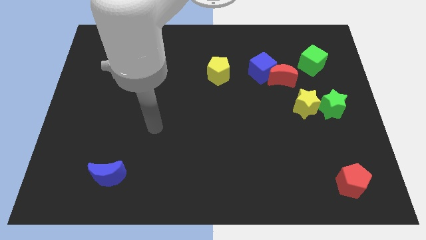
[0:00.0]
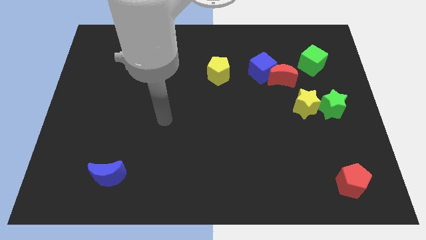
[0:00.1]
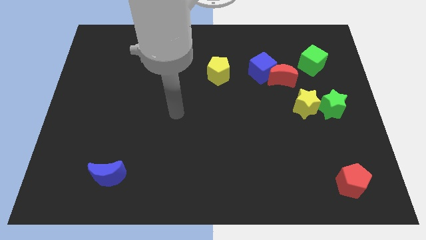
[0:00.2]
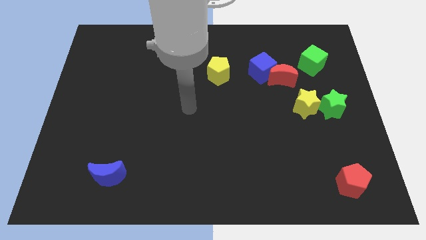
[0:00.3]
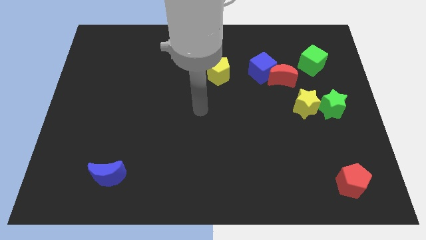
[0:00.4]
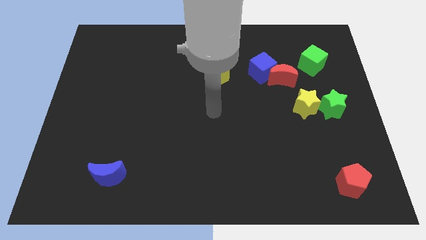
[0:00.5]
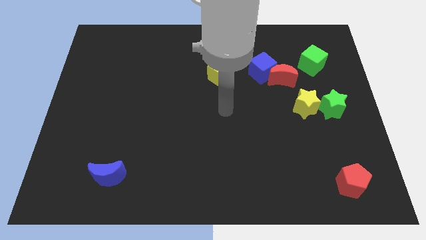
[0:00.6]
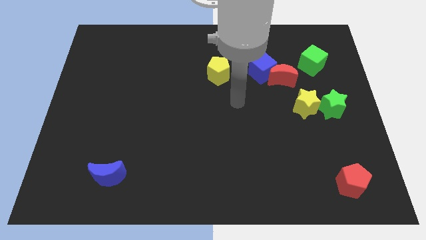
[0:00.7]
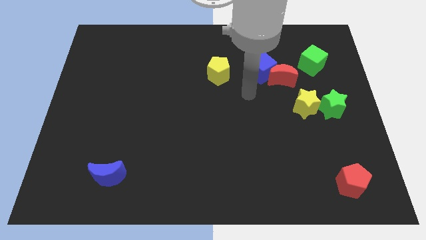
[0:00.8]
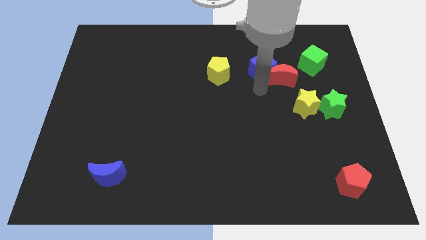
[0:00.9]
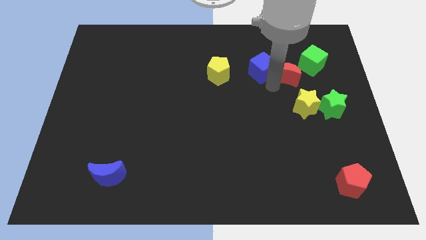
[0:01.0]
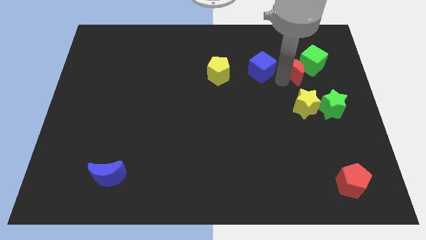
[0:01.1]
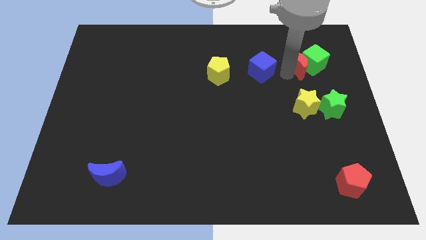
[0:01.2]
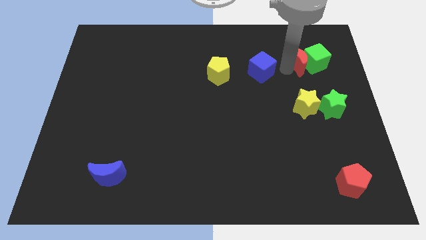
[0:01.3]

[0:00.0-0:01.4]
pull the blue cube apart from the red moon

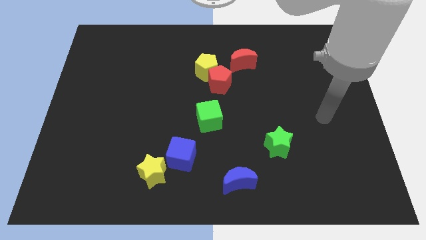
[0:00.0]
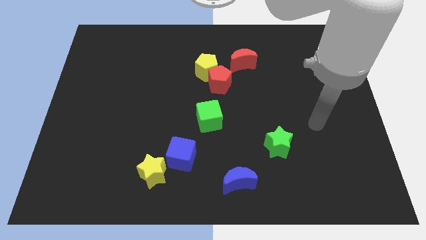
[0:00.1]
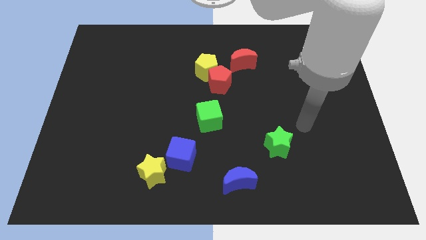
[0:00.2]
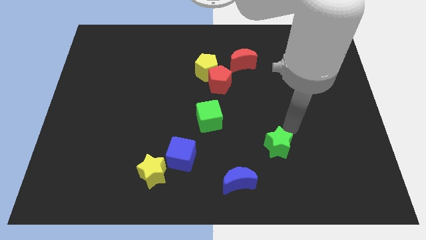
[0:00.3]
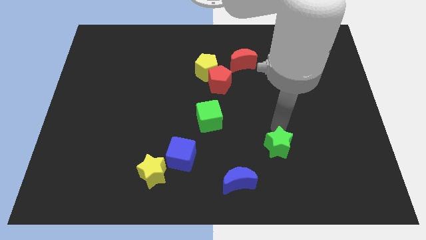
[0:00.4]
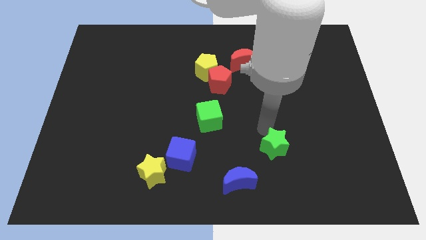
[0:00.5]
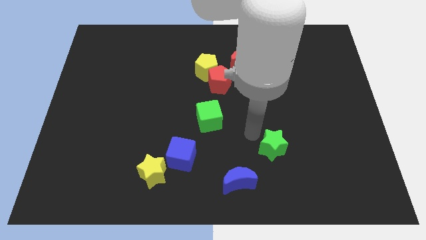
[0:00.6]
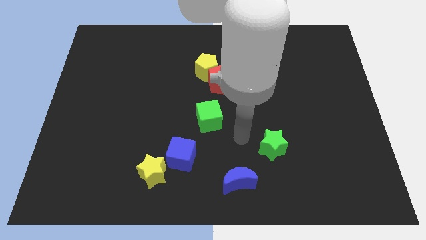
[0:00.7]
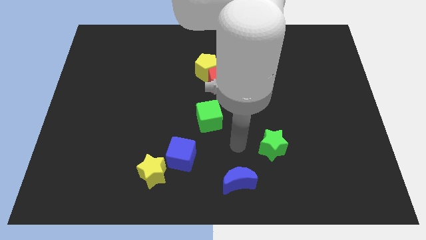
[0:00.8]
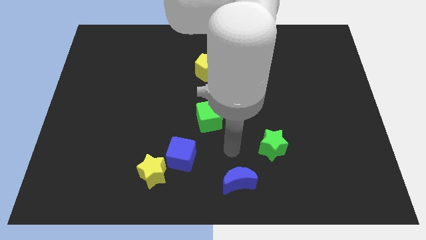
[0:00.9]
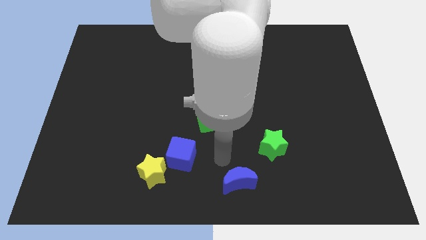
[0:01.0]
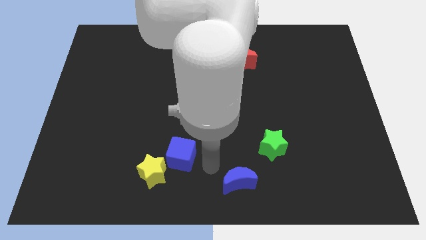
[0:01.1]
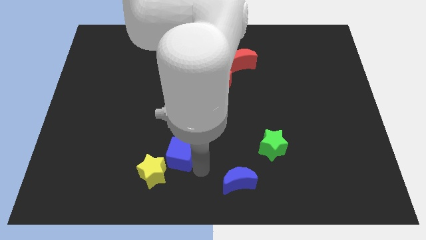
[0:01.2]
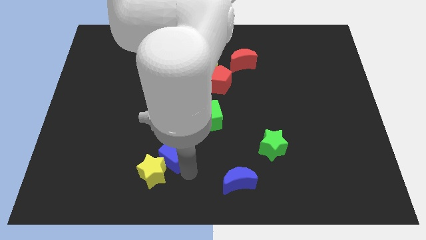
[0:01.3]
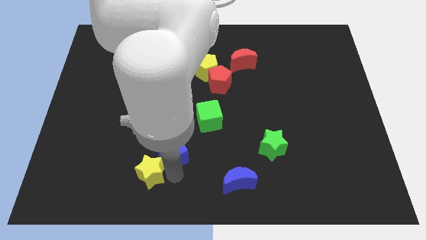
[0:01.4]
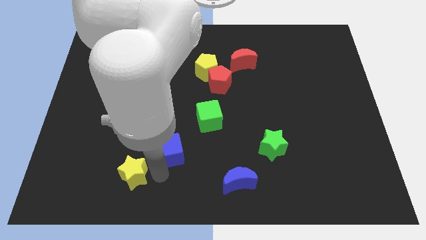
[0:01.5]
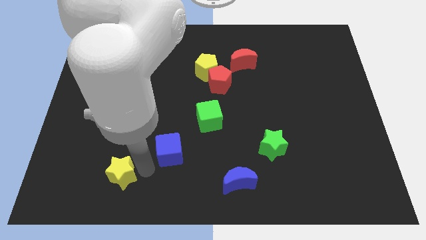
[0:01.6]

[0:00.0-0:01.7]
separate the blue cube from the yellow star

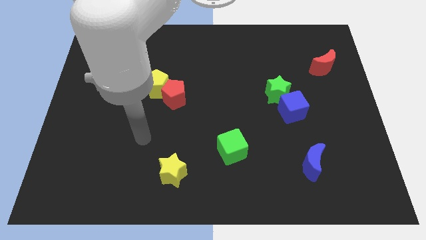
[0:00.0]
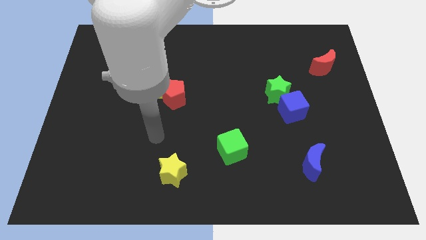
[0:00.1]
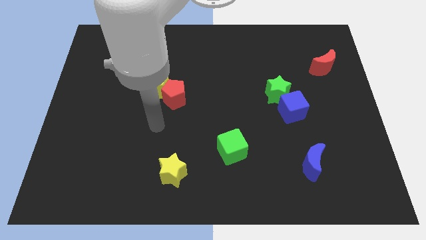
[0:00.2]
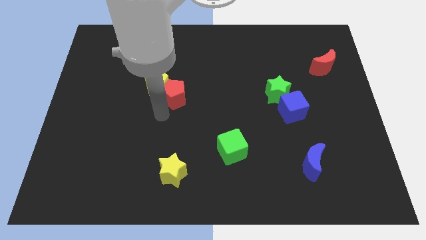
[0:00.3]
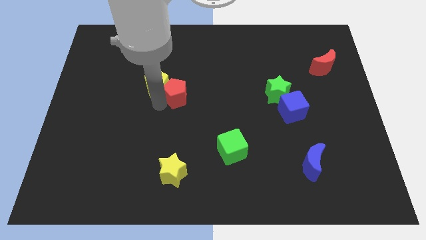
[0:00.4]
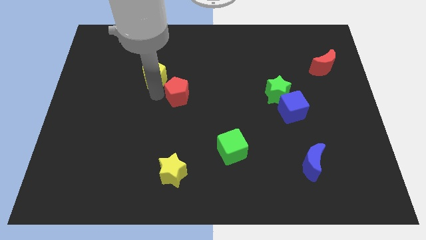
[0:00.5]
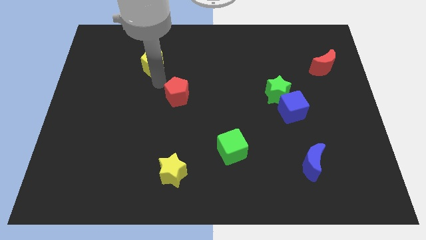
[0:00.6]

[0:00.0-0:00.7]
move the red pentagon away from the yellow pentagon

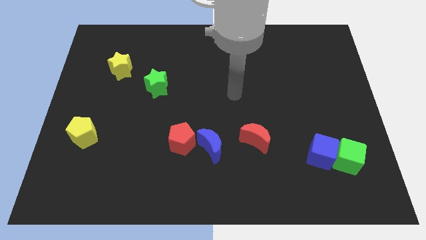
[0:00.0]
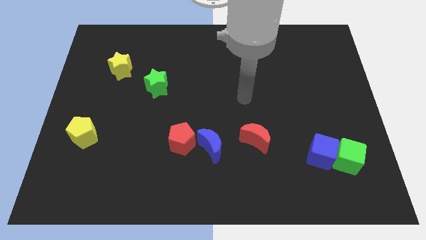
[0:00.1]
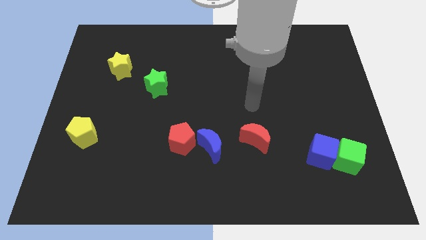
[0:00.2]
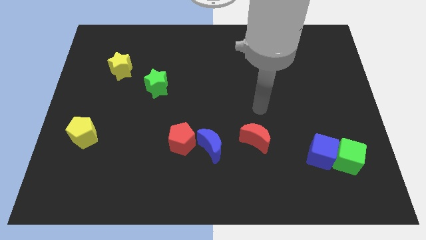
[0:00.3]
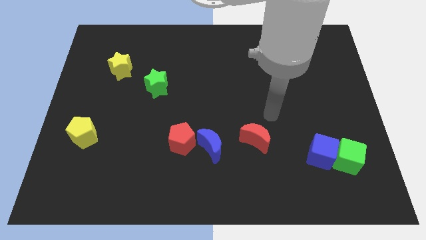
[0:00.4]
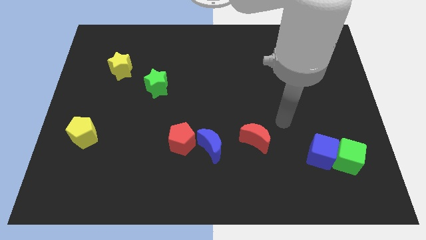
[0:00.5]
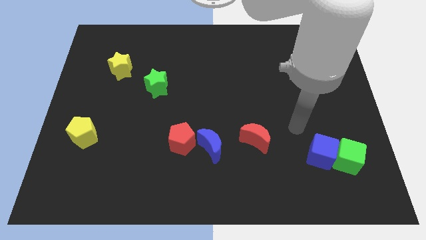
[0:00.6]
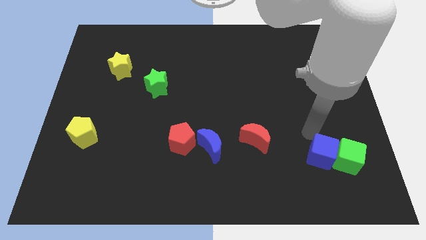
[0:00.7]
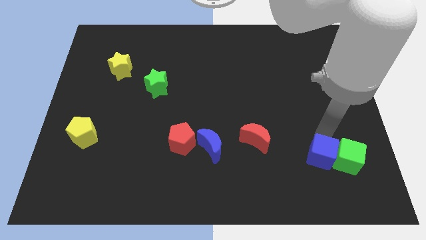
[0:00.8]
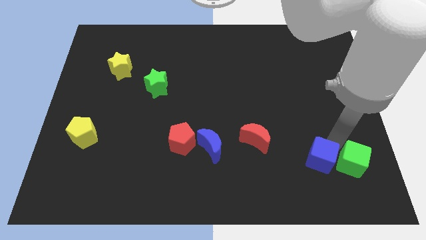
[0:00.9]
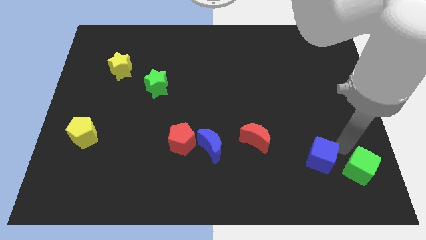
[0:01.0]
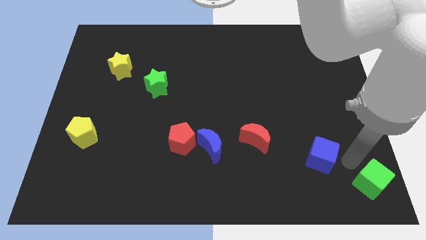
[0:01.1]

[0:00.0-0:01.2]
separate the blue cube from the green cube

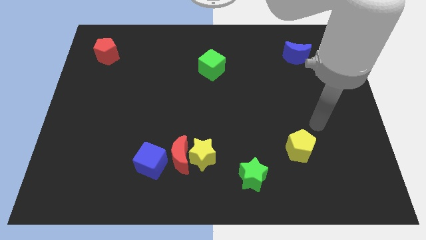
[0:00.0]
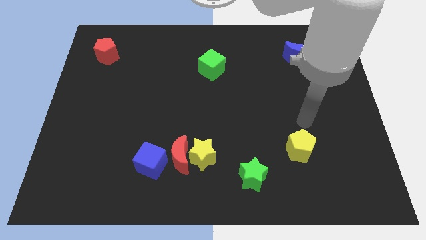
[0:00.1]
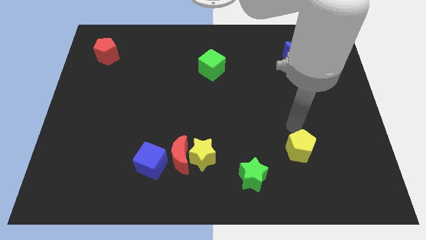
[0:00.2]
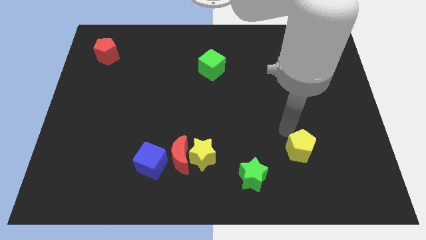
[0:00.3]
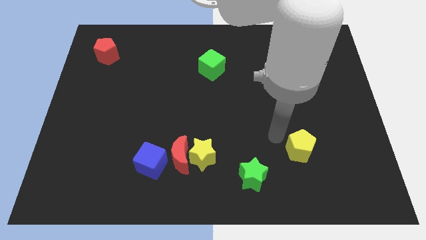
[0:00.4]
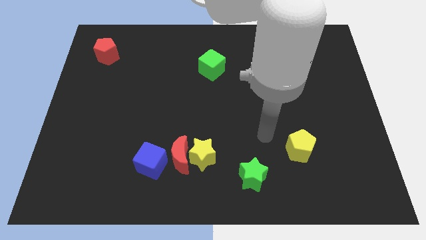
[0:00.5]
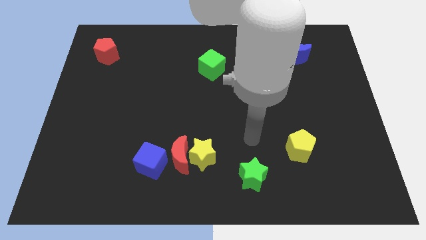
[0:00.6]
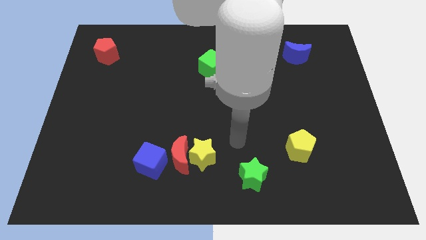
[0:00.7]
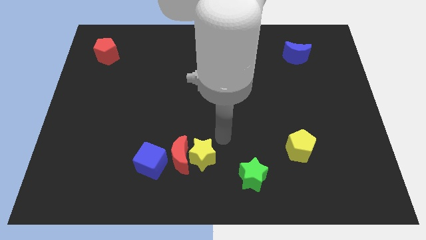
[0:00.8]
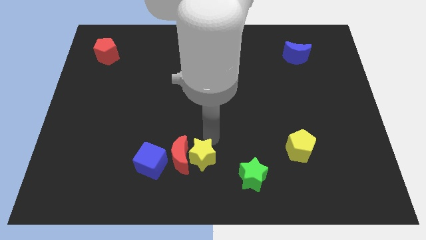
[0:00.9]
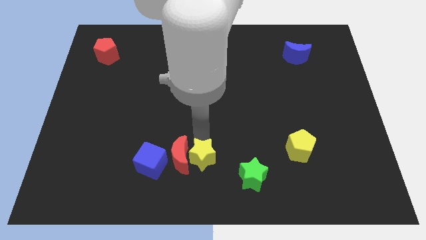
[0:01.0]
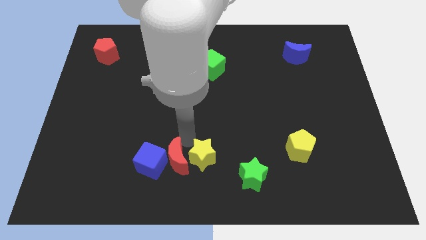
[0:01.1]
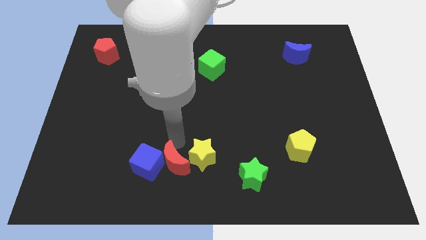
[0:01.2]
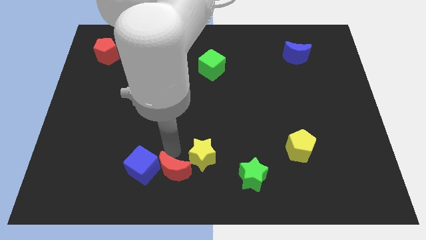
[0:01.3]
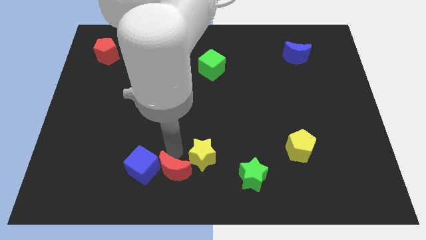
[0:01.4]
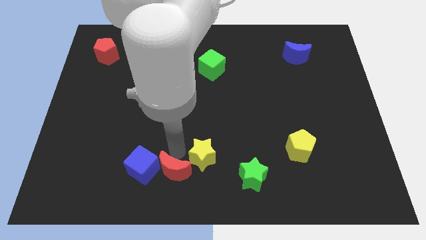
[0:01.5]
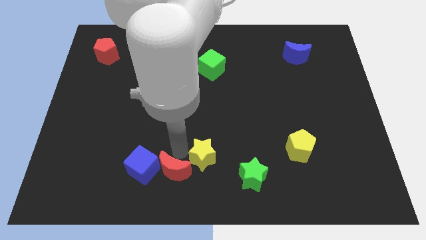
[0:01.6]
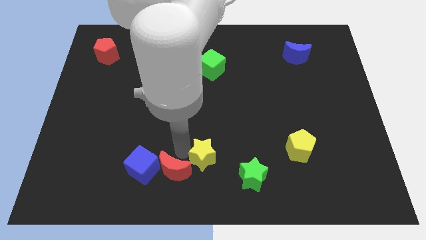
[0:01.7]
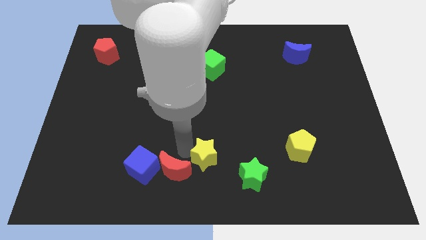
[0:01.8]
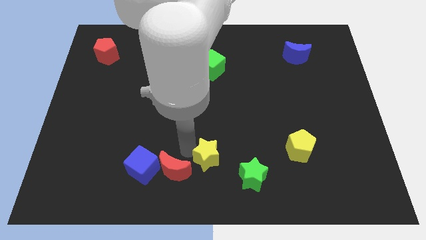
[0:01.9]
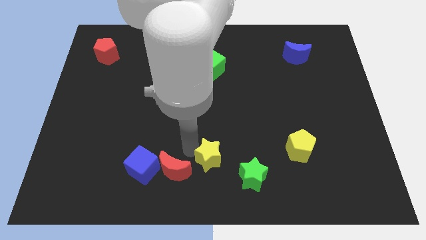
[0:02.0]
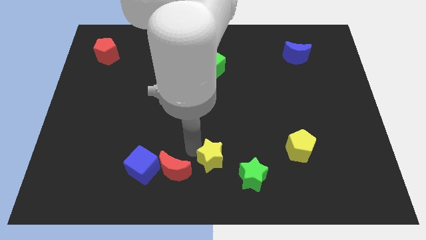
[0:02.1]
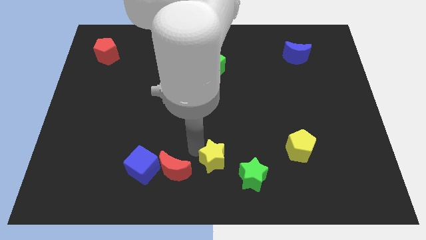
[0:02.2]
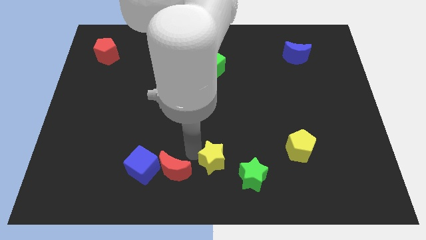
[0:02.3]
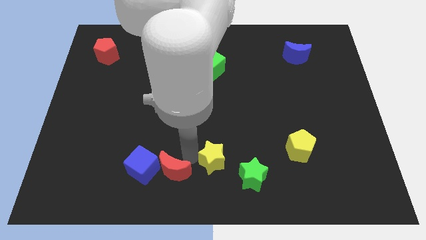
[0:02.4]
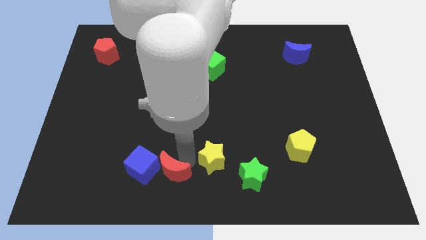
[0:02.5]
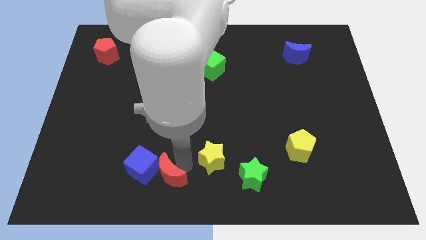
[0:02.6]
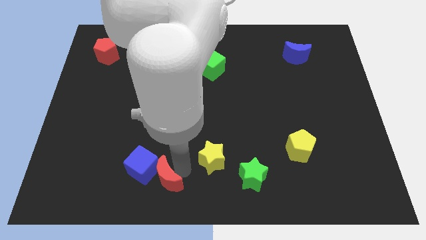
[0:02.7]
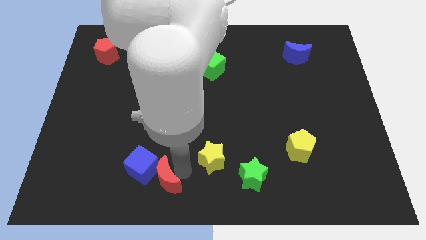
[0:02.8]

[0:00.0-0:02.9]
pull the yellow star apart from the red moon

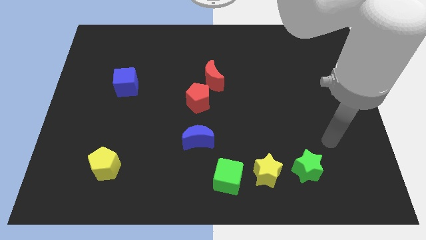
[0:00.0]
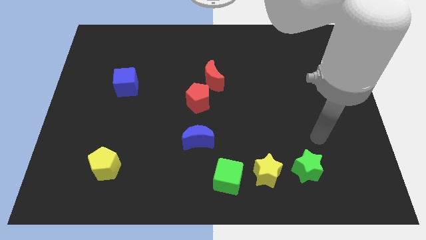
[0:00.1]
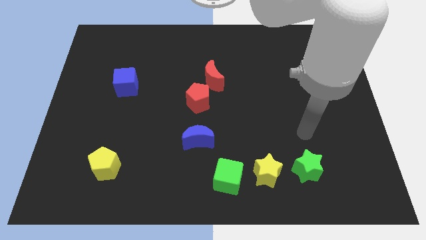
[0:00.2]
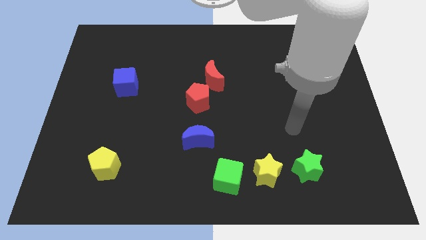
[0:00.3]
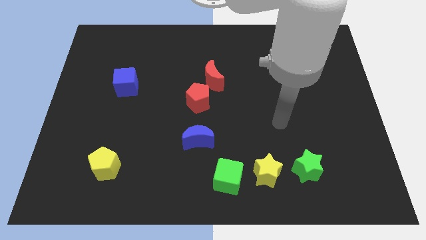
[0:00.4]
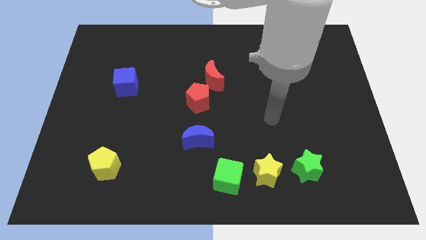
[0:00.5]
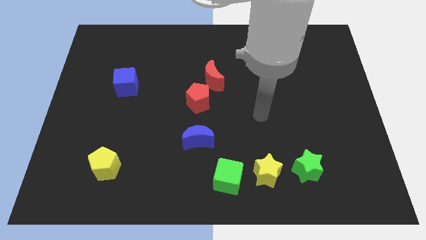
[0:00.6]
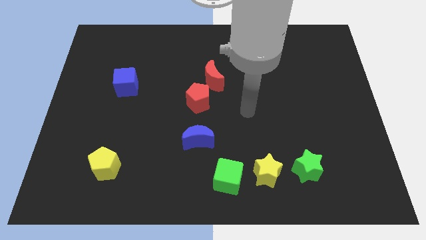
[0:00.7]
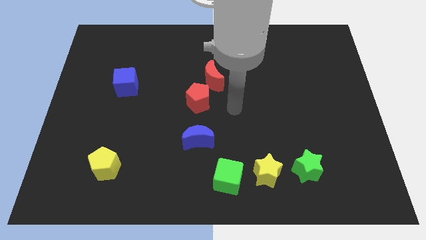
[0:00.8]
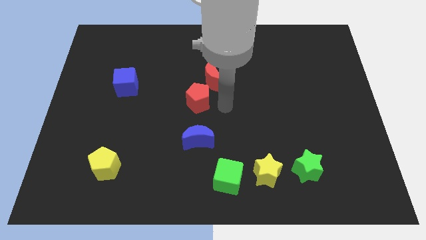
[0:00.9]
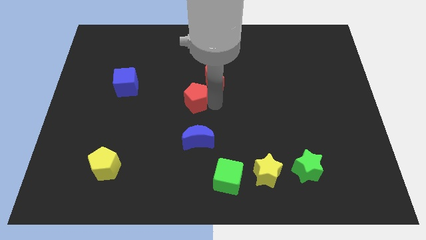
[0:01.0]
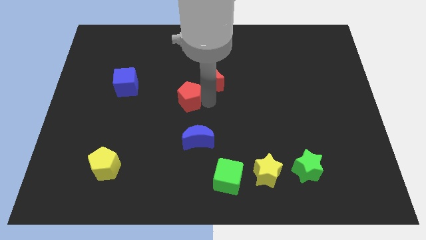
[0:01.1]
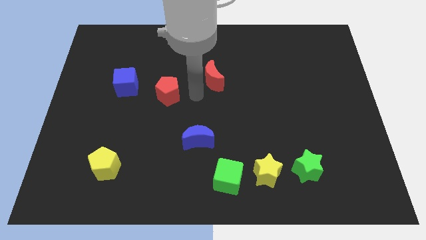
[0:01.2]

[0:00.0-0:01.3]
pull the red moon apart from the red pentagon

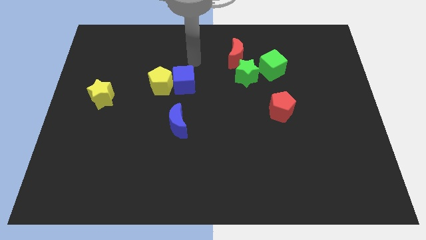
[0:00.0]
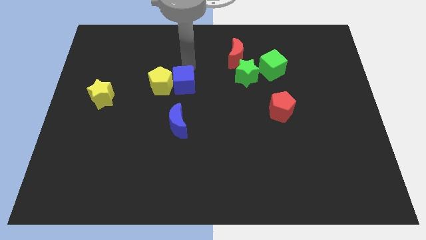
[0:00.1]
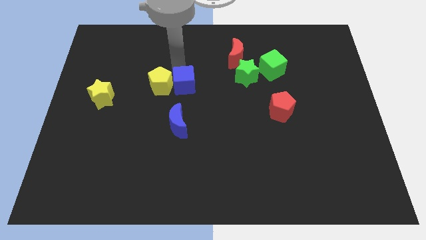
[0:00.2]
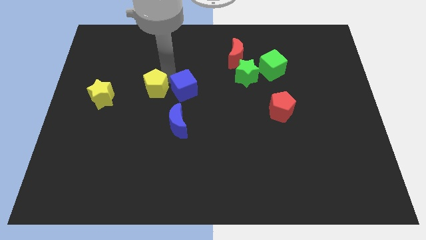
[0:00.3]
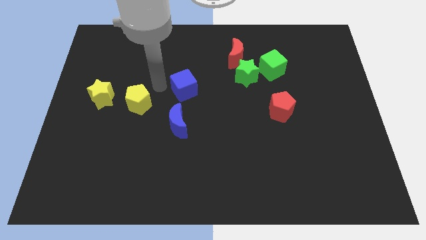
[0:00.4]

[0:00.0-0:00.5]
move the blue cube away from the yellow pentagon
